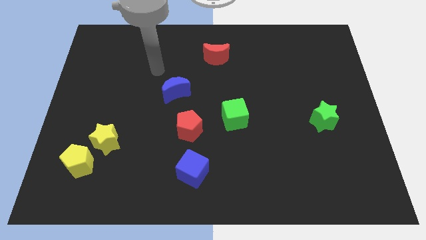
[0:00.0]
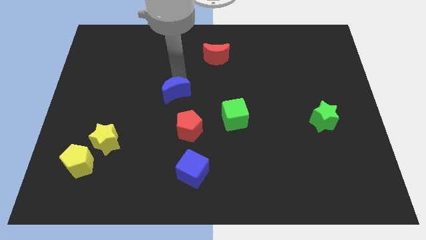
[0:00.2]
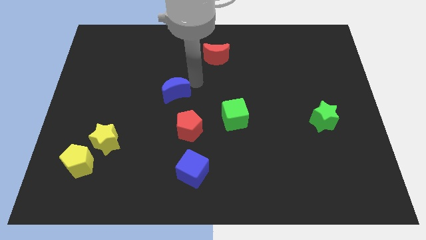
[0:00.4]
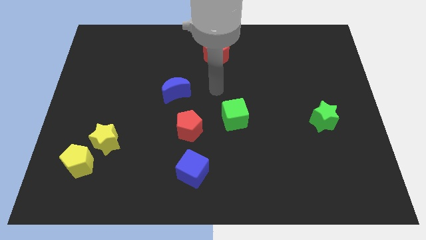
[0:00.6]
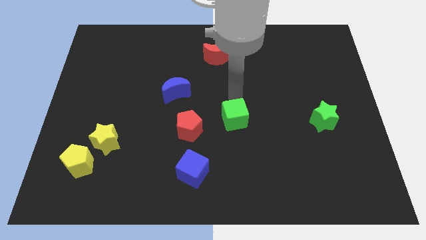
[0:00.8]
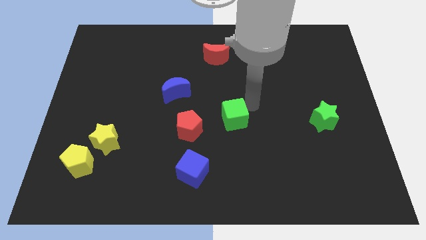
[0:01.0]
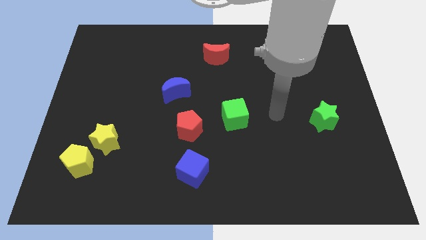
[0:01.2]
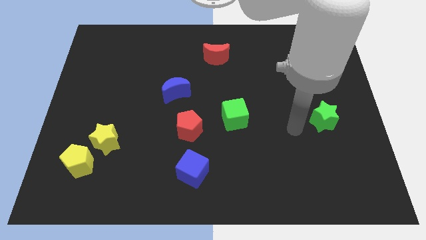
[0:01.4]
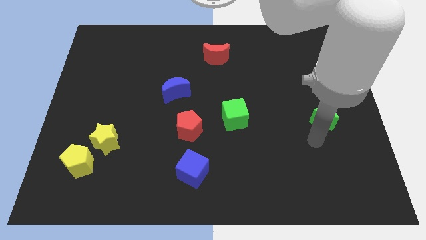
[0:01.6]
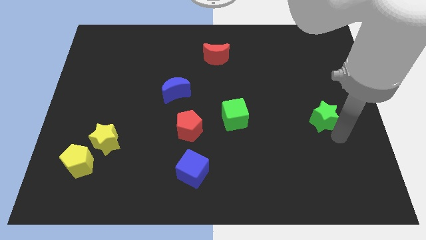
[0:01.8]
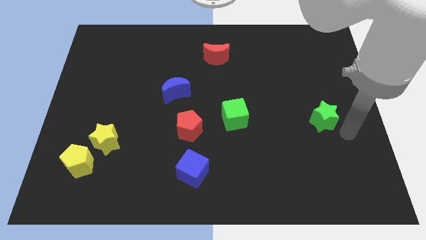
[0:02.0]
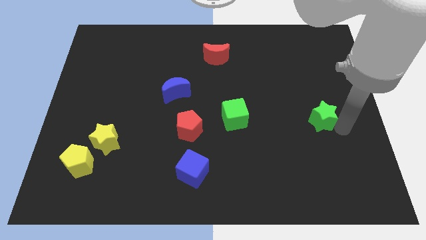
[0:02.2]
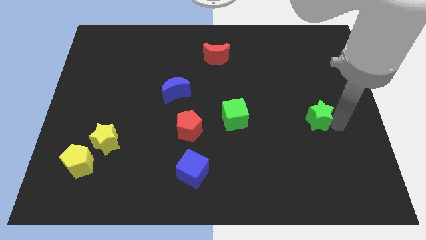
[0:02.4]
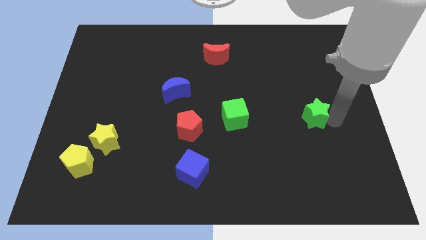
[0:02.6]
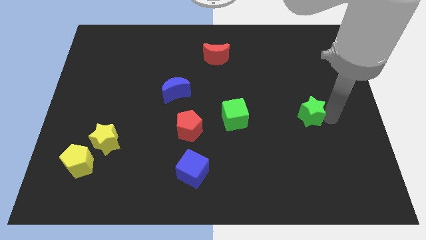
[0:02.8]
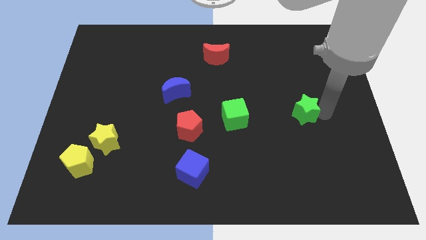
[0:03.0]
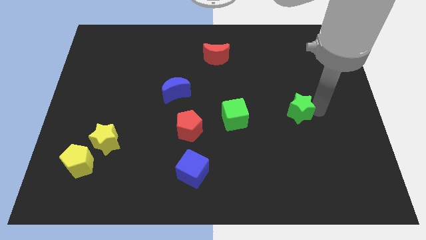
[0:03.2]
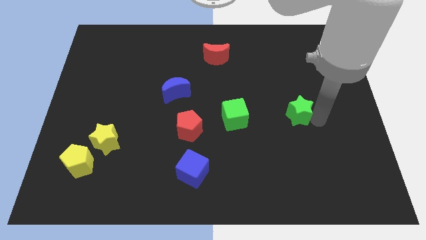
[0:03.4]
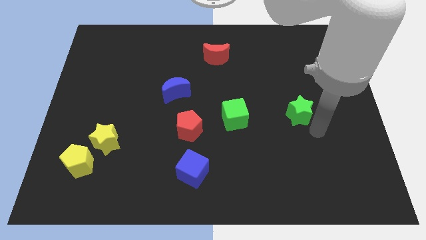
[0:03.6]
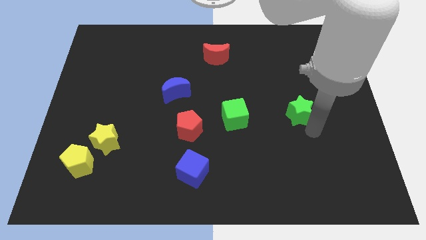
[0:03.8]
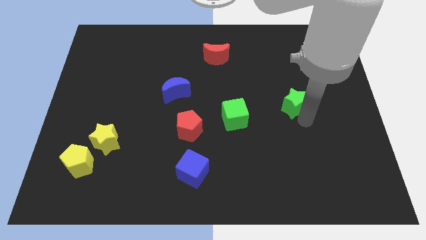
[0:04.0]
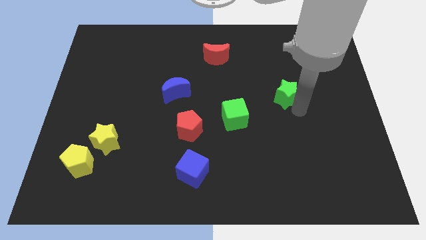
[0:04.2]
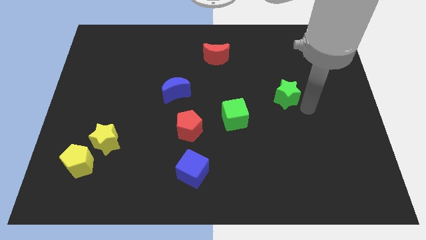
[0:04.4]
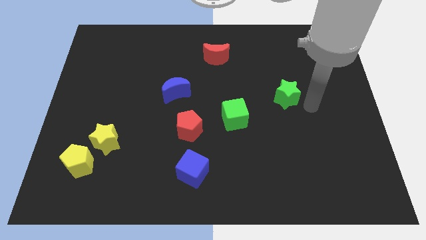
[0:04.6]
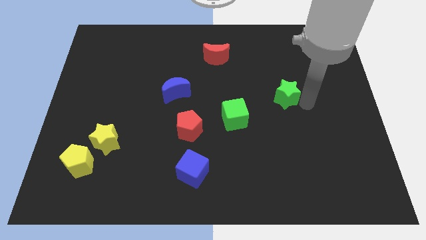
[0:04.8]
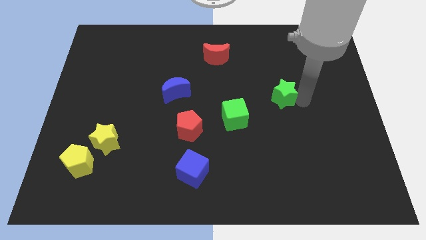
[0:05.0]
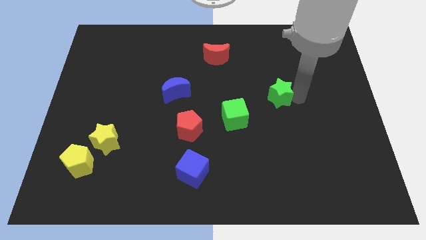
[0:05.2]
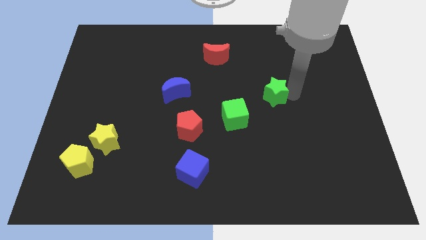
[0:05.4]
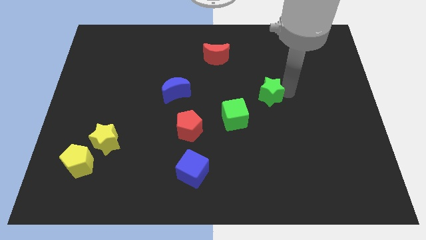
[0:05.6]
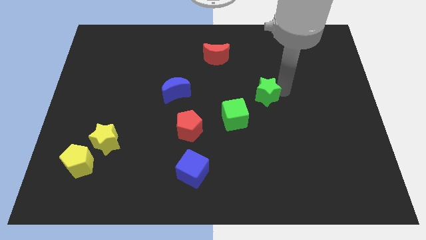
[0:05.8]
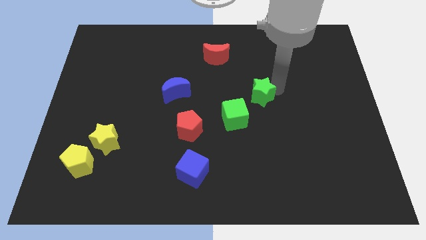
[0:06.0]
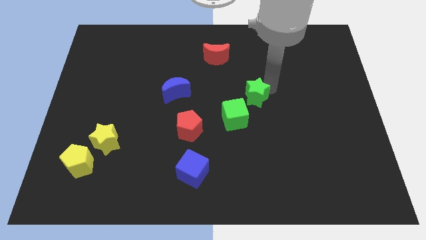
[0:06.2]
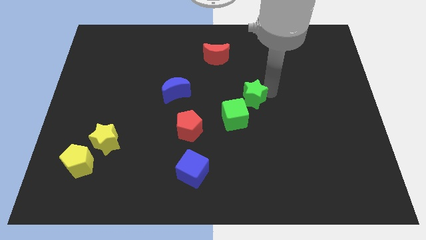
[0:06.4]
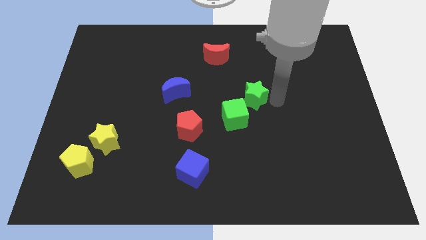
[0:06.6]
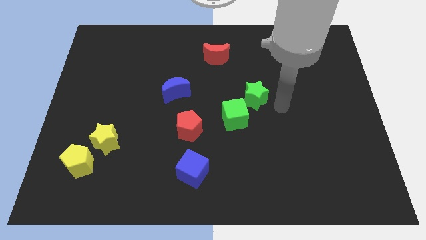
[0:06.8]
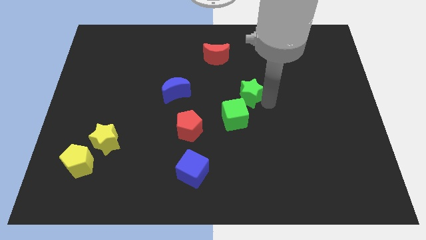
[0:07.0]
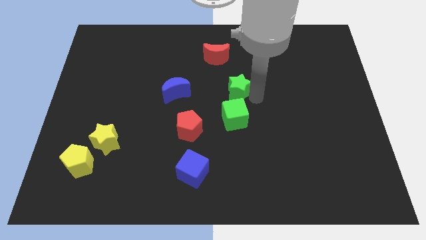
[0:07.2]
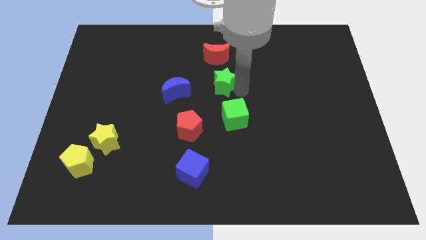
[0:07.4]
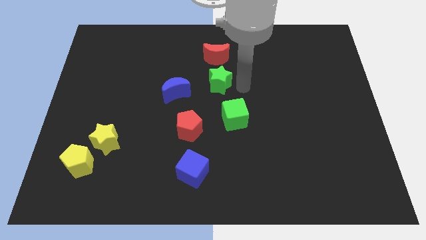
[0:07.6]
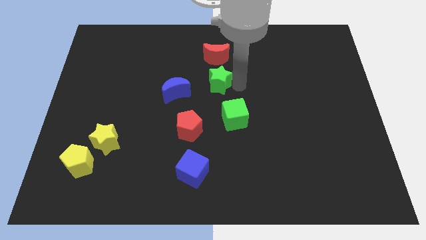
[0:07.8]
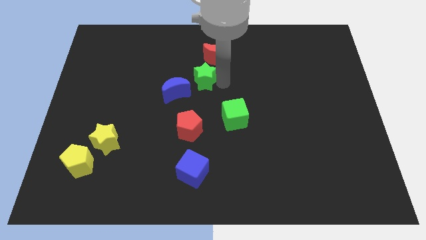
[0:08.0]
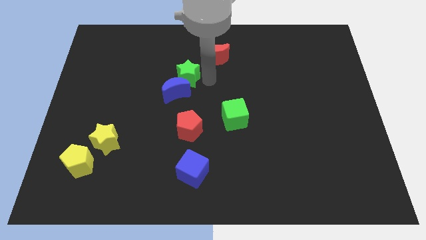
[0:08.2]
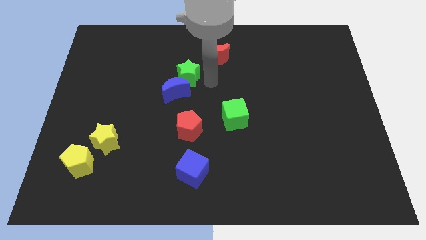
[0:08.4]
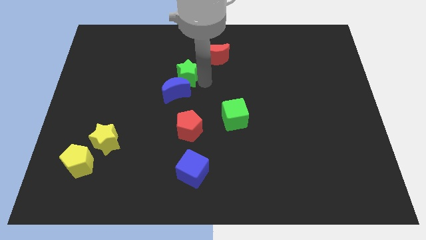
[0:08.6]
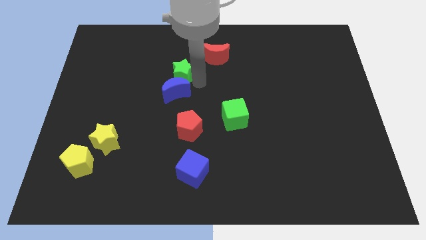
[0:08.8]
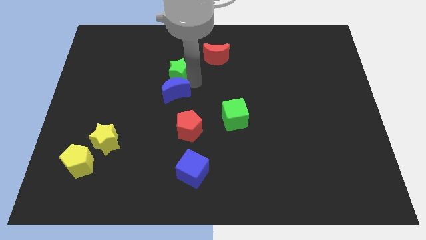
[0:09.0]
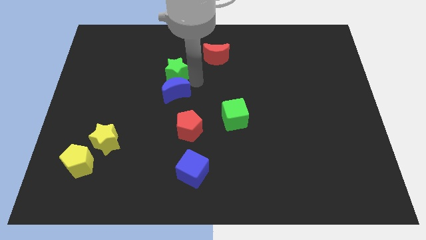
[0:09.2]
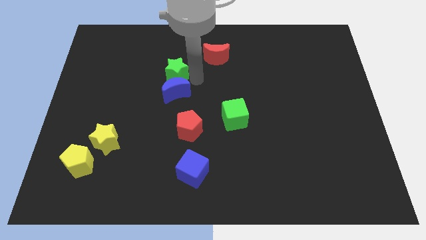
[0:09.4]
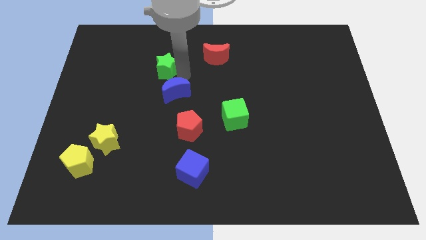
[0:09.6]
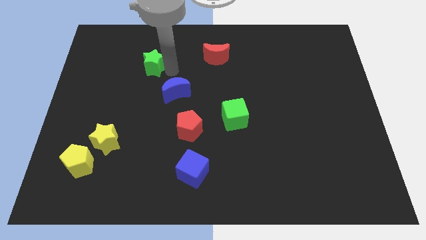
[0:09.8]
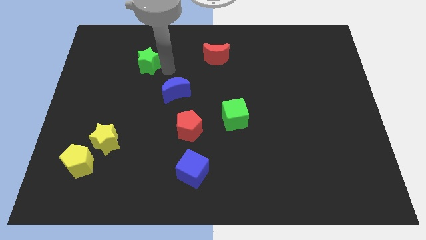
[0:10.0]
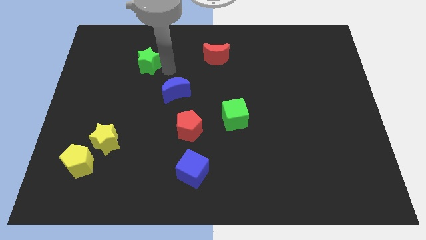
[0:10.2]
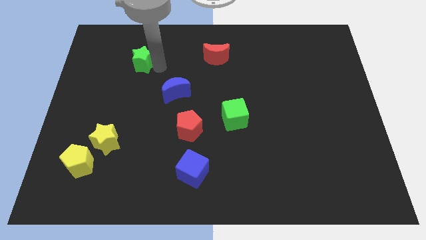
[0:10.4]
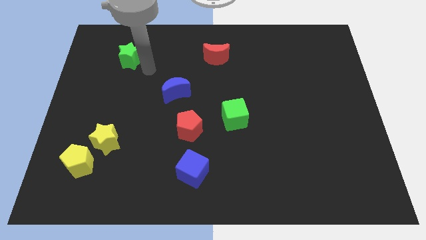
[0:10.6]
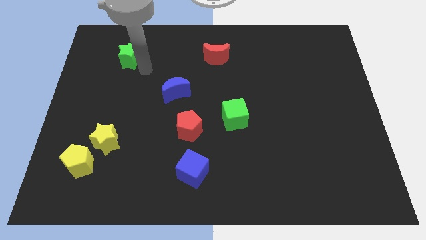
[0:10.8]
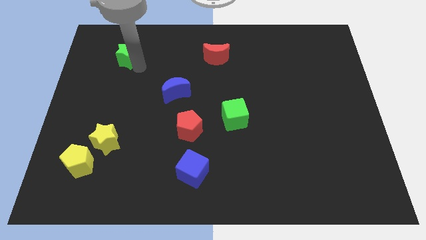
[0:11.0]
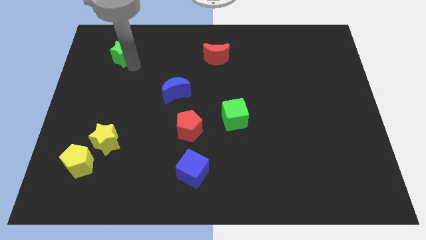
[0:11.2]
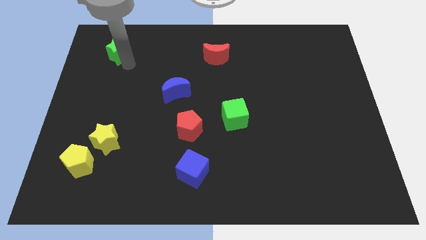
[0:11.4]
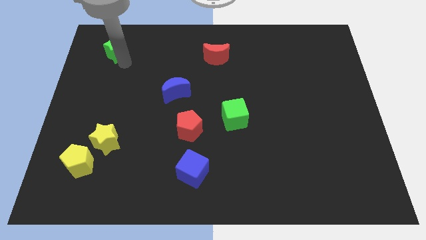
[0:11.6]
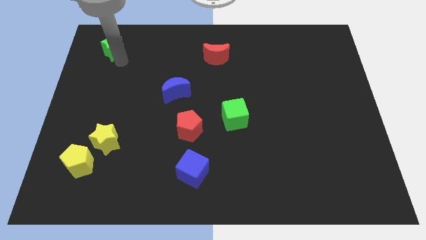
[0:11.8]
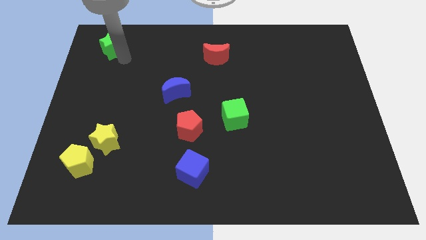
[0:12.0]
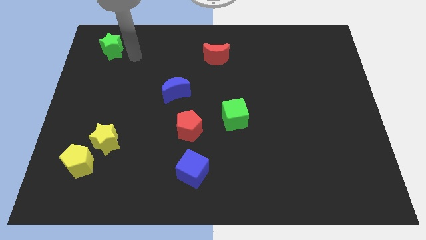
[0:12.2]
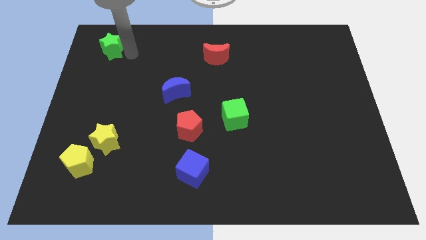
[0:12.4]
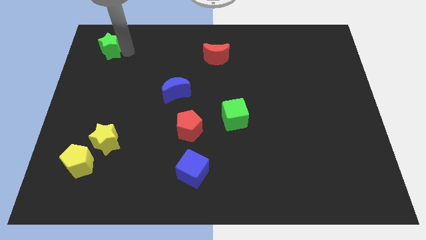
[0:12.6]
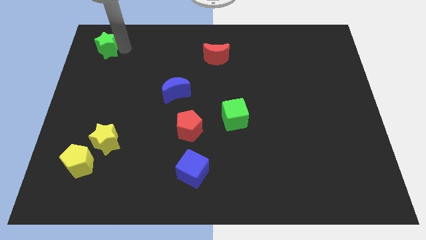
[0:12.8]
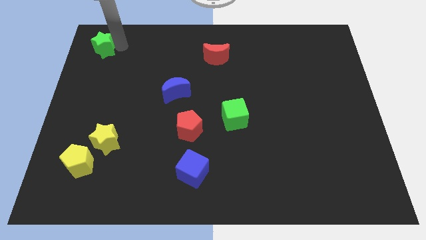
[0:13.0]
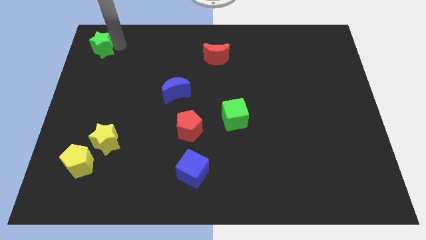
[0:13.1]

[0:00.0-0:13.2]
push the green star to the upper left corner
